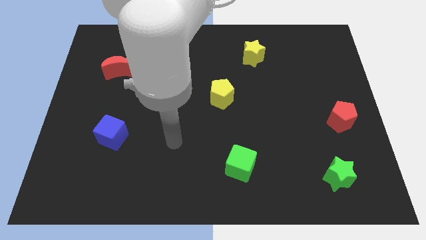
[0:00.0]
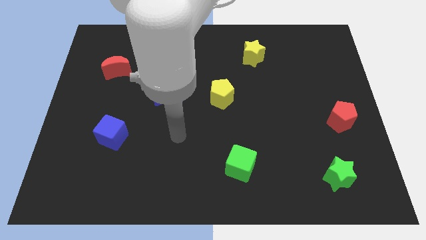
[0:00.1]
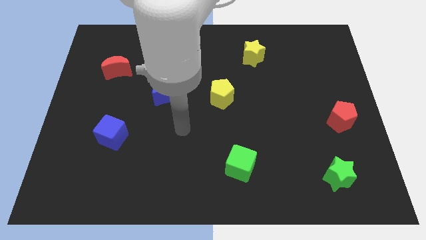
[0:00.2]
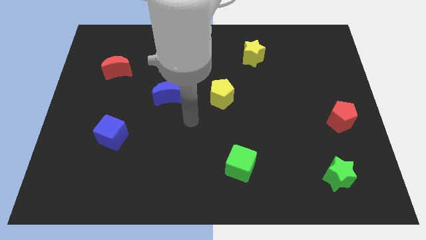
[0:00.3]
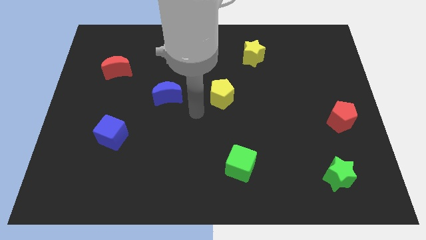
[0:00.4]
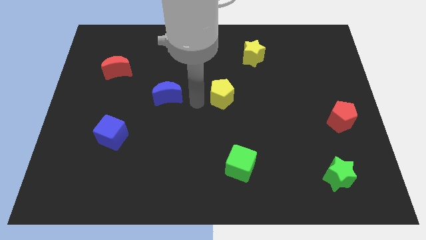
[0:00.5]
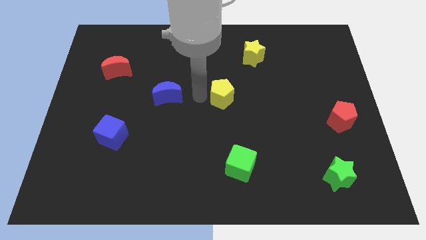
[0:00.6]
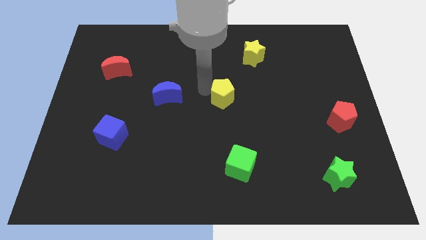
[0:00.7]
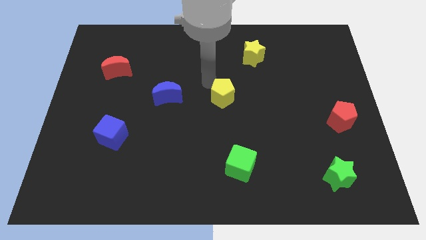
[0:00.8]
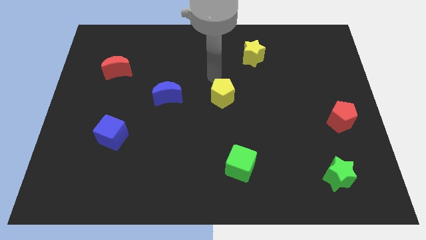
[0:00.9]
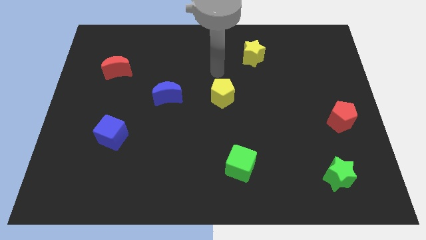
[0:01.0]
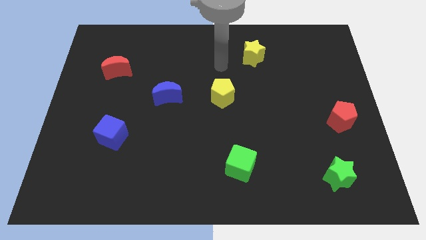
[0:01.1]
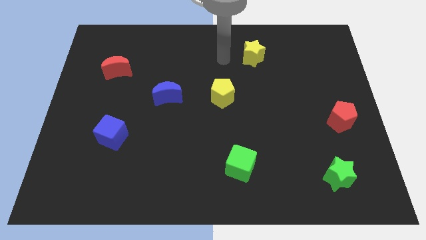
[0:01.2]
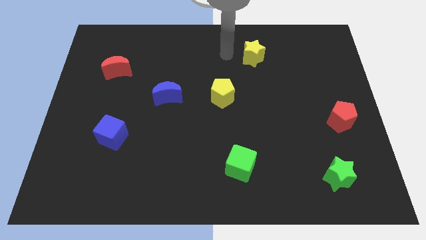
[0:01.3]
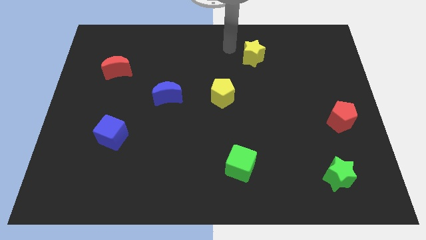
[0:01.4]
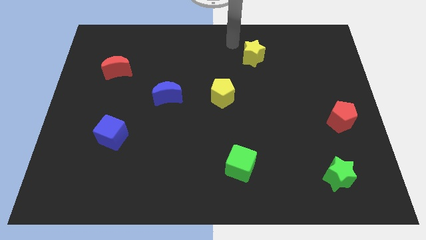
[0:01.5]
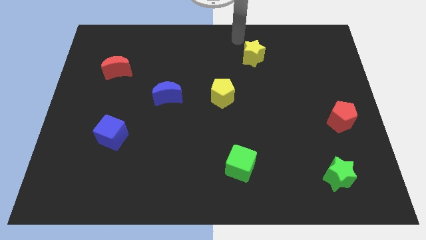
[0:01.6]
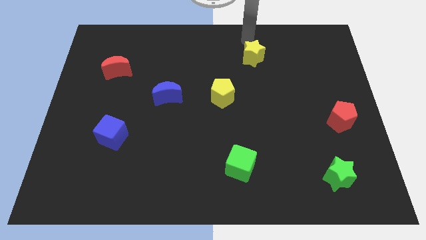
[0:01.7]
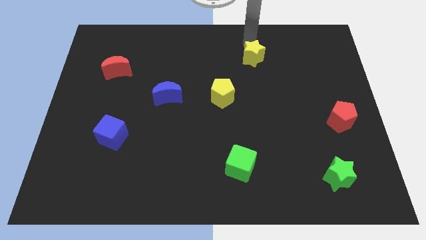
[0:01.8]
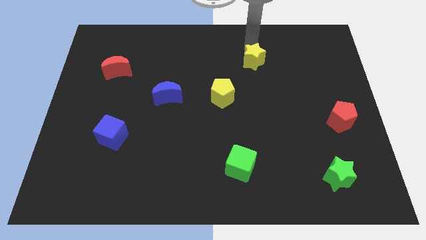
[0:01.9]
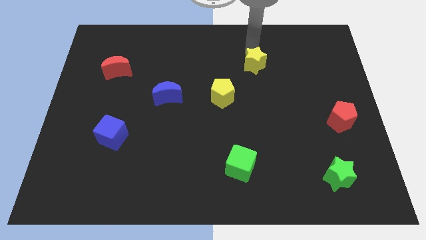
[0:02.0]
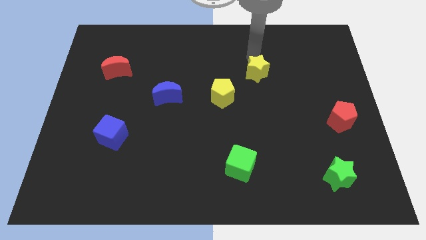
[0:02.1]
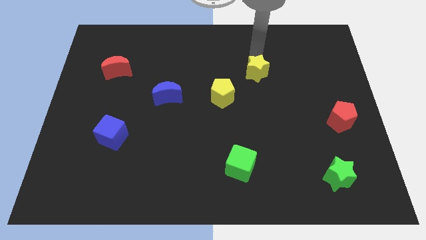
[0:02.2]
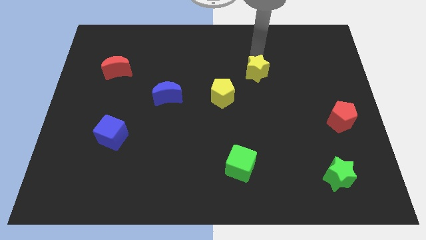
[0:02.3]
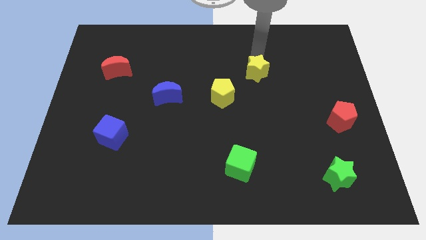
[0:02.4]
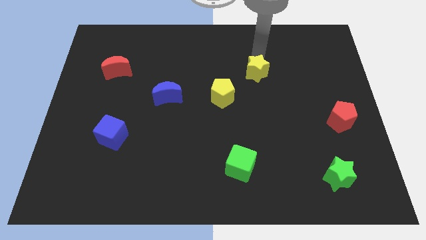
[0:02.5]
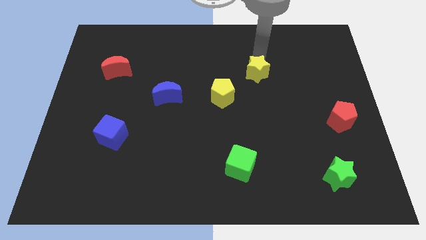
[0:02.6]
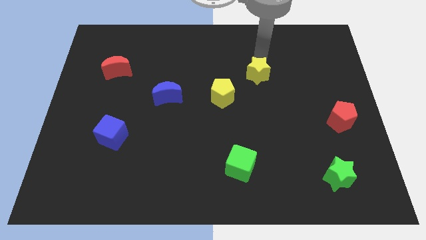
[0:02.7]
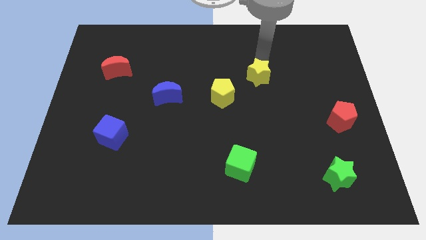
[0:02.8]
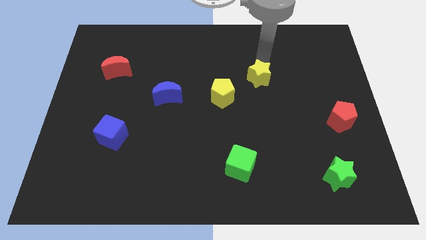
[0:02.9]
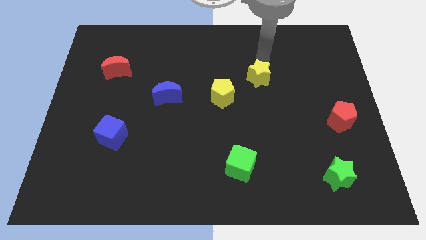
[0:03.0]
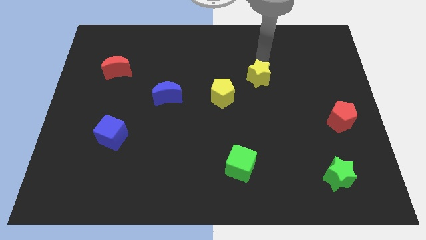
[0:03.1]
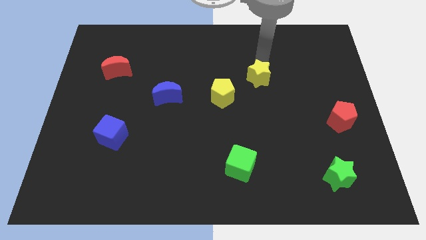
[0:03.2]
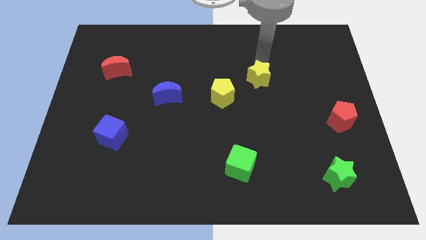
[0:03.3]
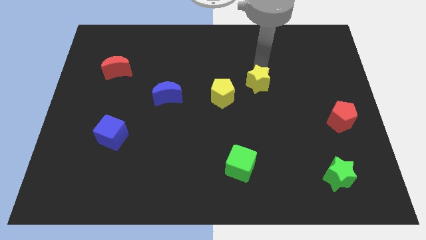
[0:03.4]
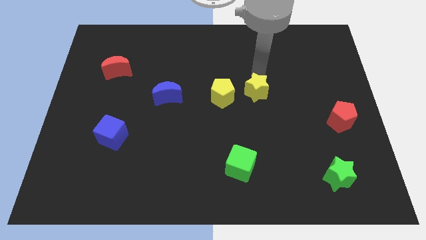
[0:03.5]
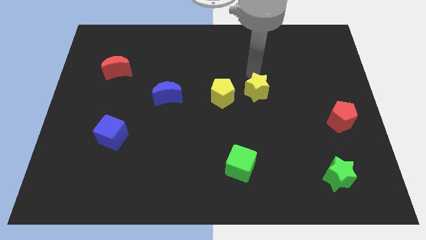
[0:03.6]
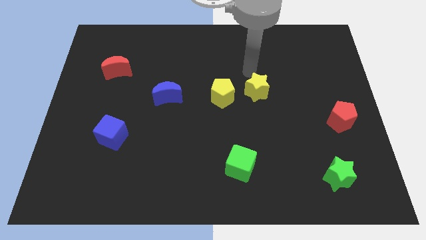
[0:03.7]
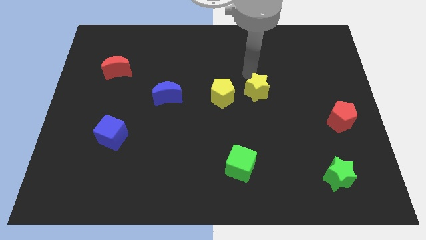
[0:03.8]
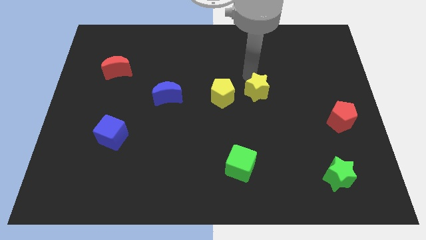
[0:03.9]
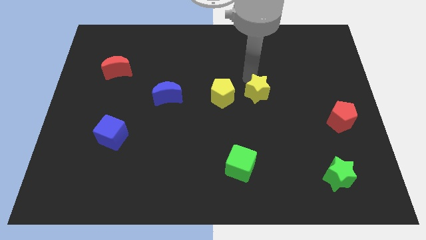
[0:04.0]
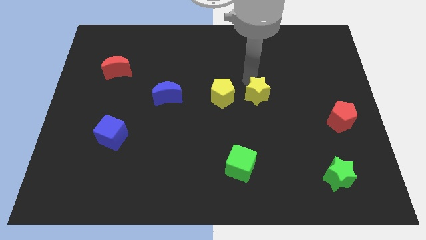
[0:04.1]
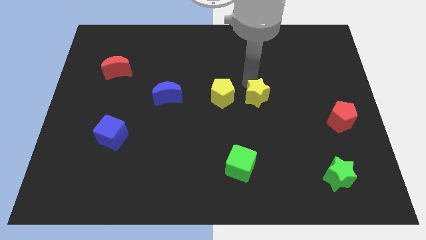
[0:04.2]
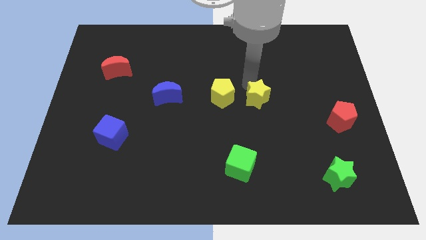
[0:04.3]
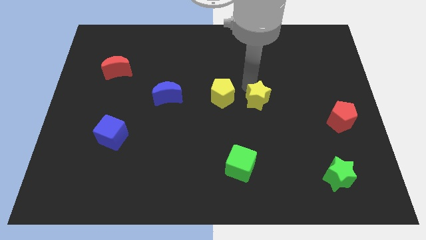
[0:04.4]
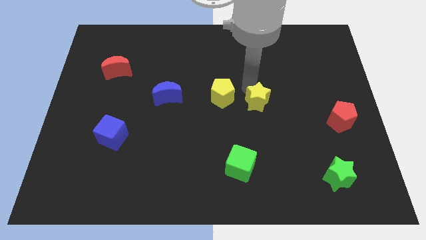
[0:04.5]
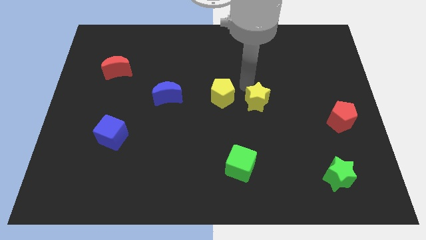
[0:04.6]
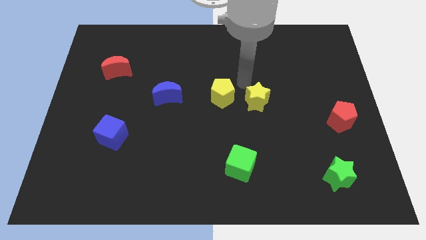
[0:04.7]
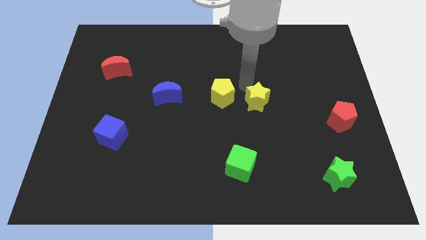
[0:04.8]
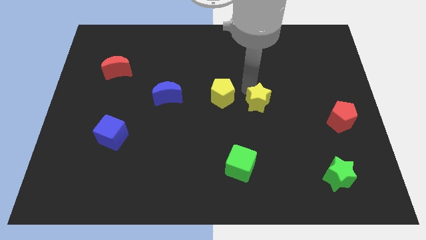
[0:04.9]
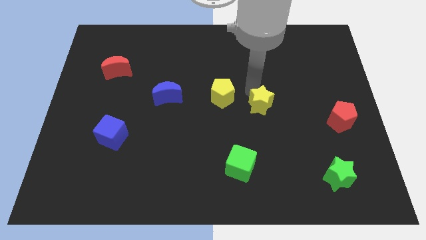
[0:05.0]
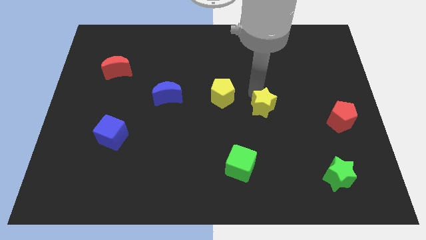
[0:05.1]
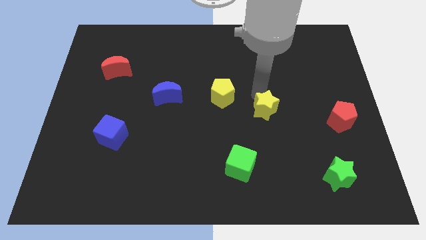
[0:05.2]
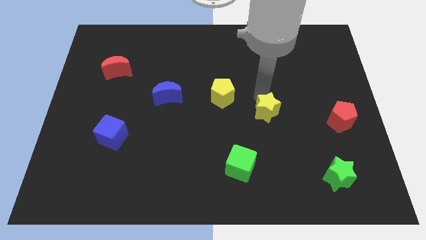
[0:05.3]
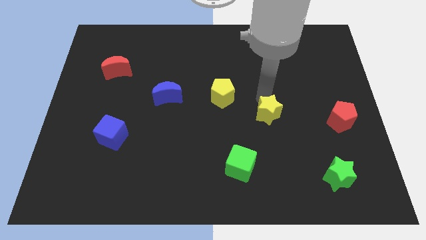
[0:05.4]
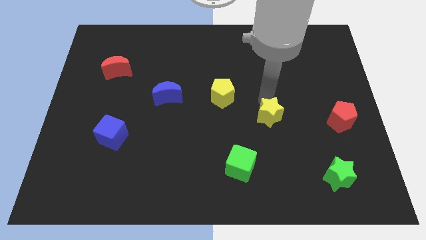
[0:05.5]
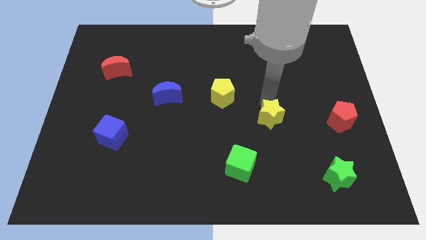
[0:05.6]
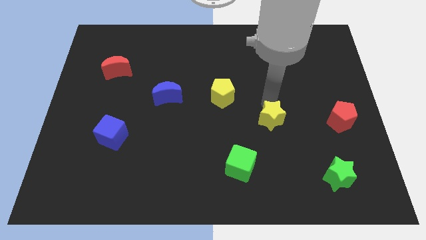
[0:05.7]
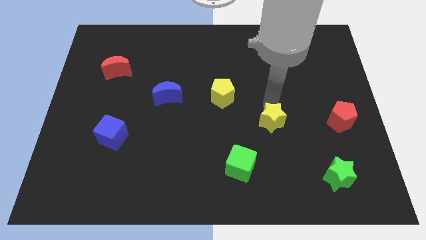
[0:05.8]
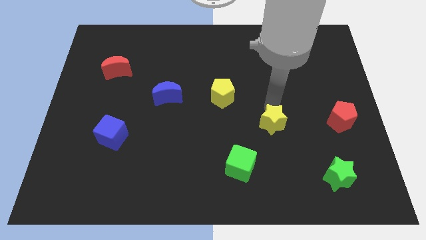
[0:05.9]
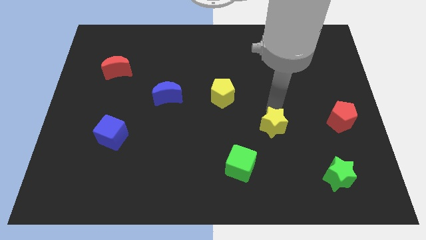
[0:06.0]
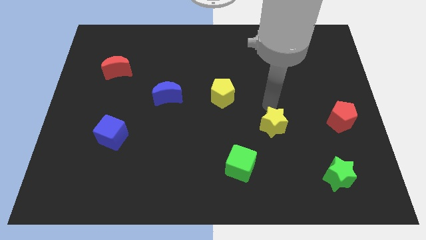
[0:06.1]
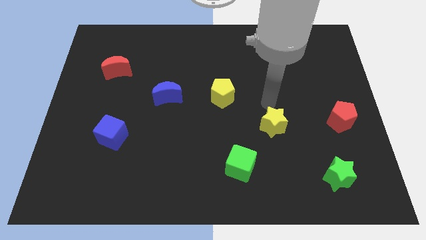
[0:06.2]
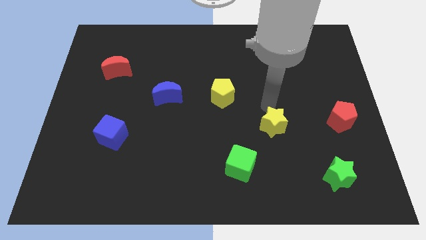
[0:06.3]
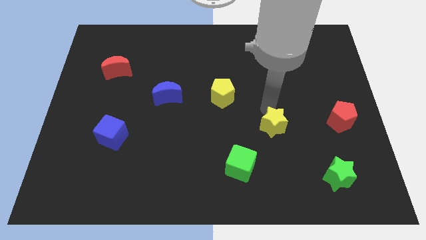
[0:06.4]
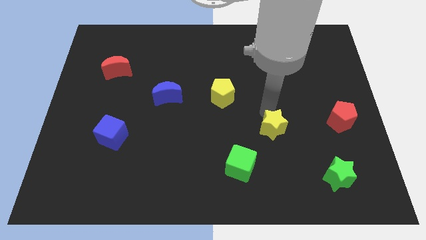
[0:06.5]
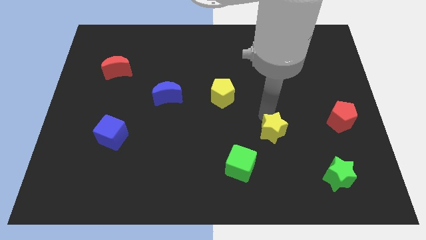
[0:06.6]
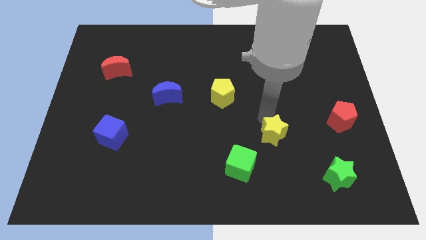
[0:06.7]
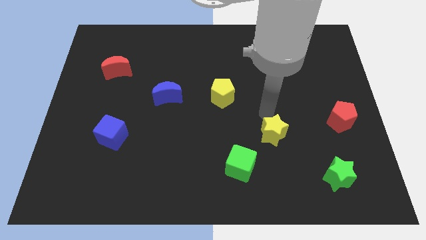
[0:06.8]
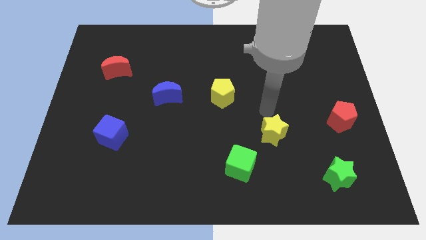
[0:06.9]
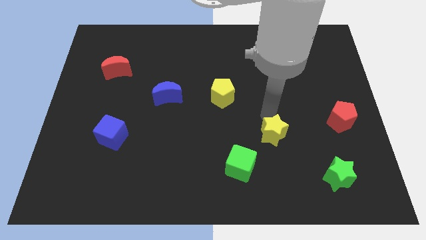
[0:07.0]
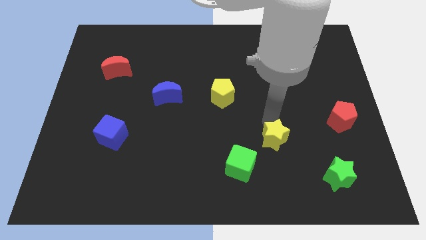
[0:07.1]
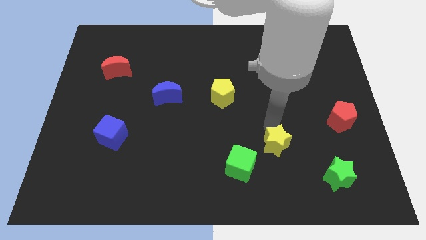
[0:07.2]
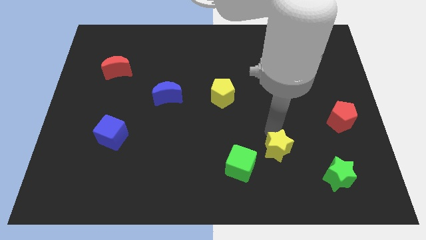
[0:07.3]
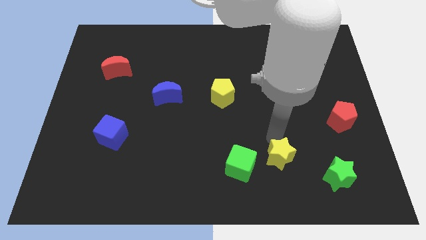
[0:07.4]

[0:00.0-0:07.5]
slide the yellow star left of the green star
